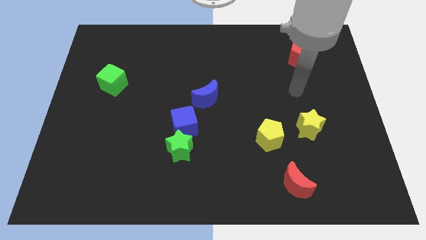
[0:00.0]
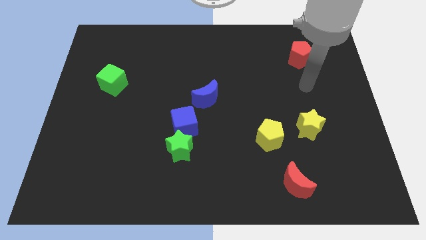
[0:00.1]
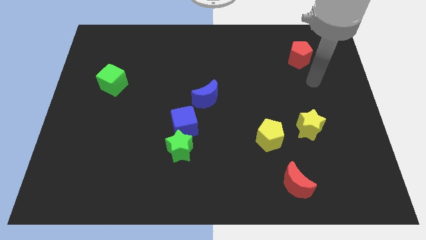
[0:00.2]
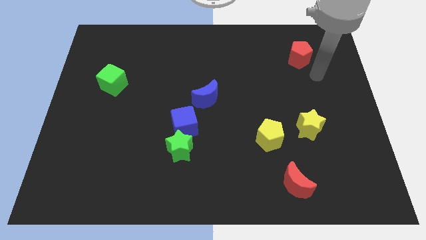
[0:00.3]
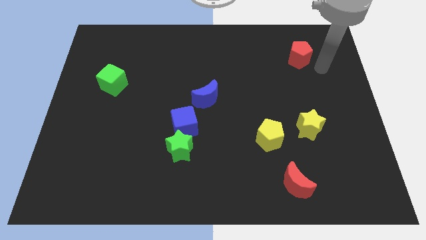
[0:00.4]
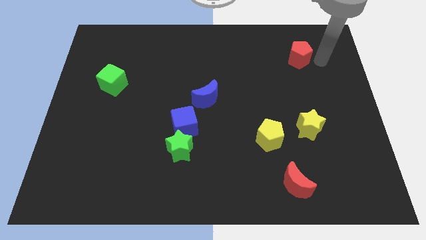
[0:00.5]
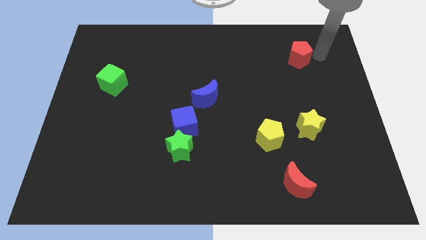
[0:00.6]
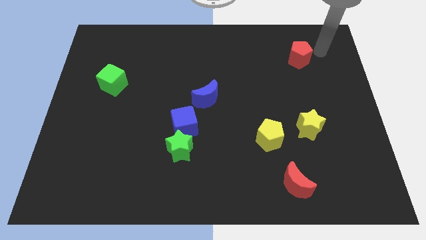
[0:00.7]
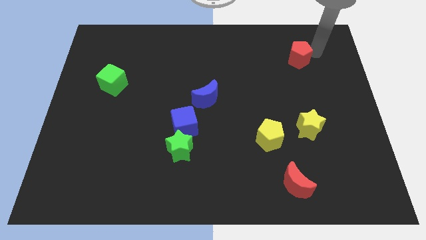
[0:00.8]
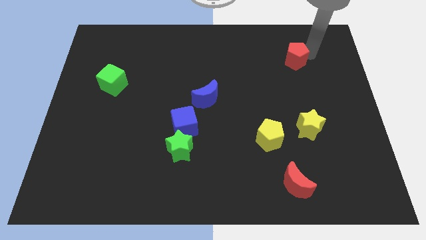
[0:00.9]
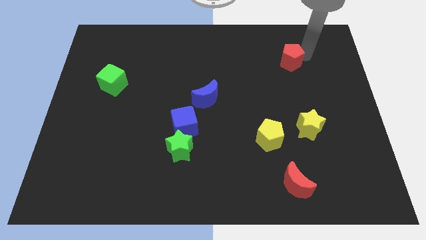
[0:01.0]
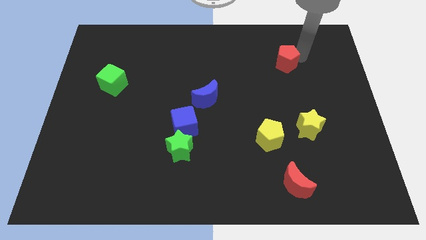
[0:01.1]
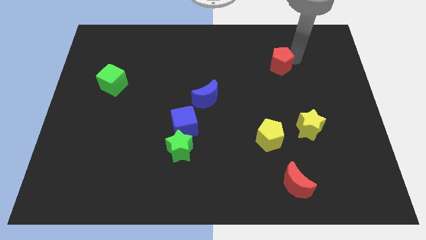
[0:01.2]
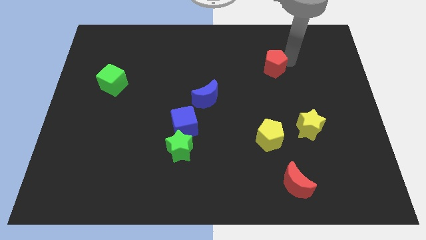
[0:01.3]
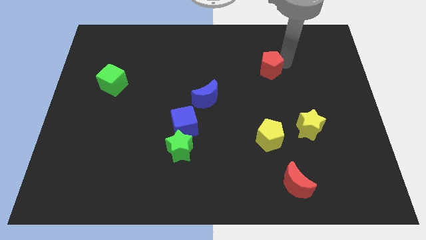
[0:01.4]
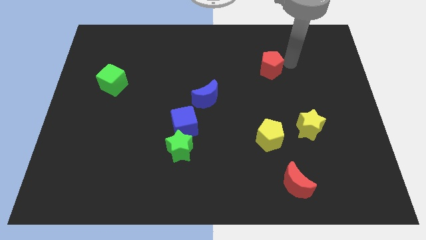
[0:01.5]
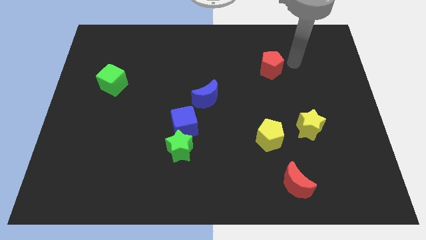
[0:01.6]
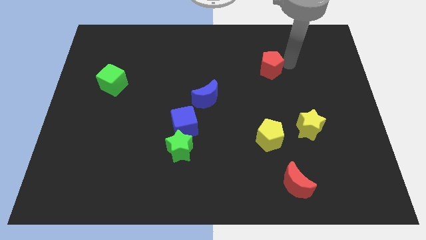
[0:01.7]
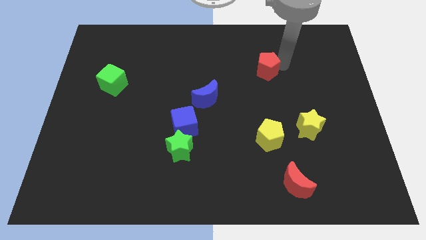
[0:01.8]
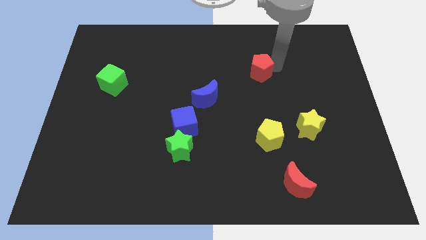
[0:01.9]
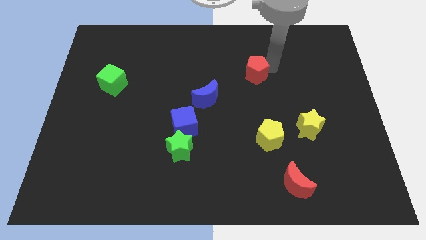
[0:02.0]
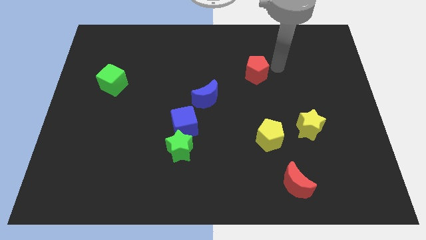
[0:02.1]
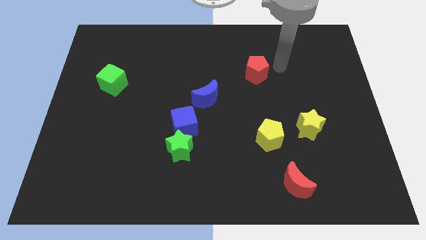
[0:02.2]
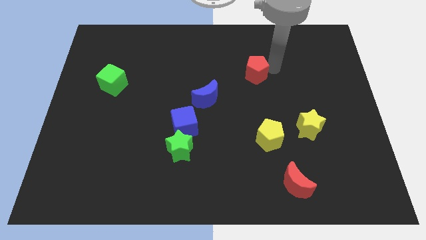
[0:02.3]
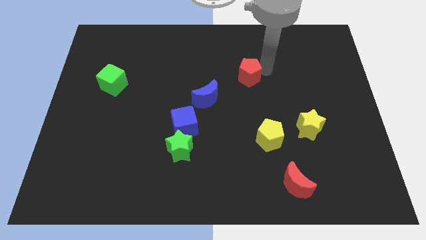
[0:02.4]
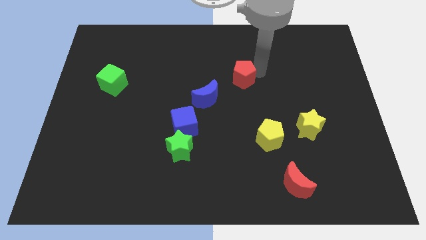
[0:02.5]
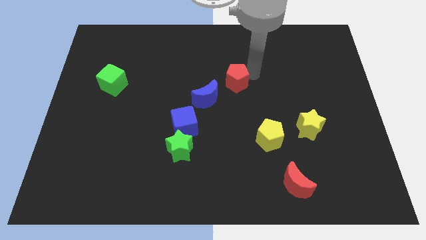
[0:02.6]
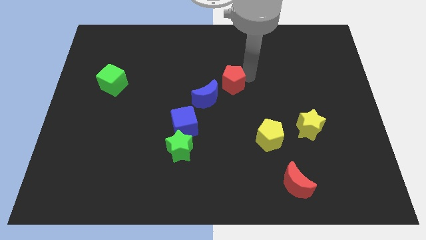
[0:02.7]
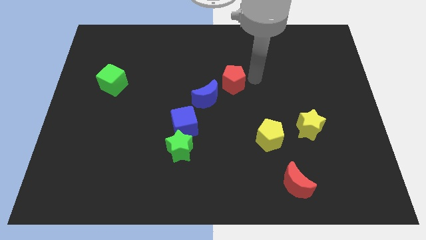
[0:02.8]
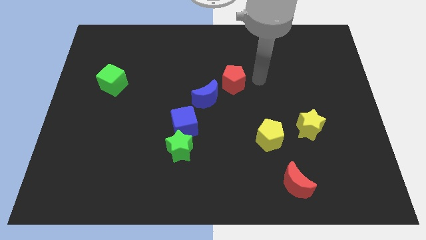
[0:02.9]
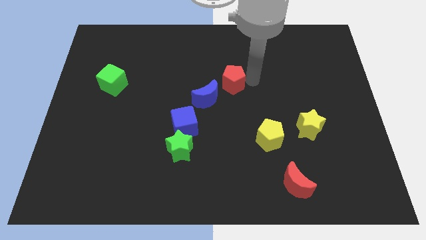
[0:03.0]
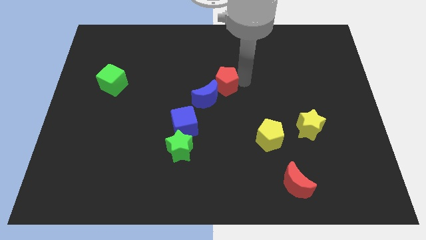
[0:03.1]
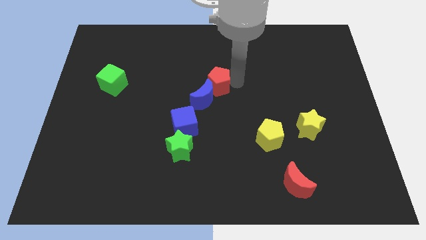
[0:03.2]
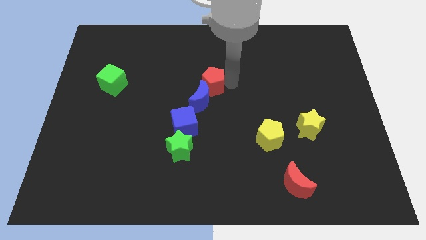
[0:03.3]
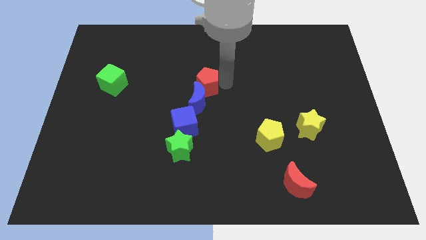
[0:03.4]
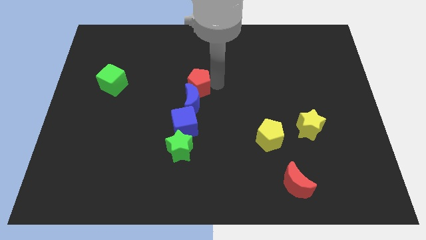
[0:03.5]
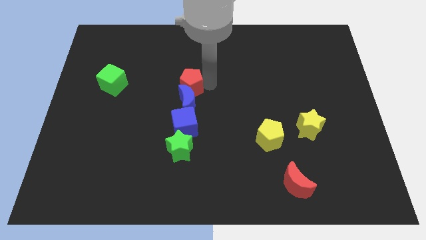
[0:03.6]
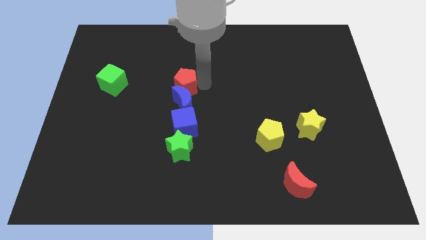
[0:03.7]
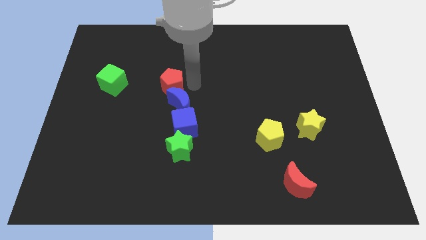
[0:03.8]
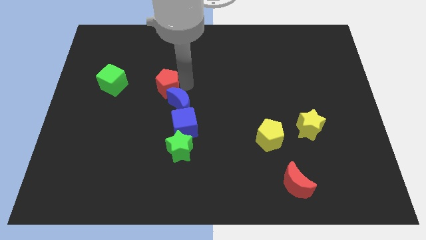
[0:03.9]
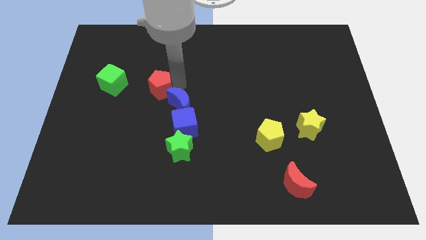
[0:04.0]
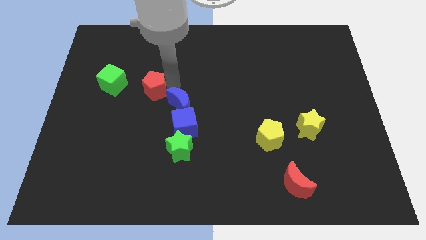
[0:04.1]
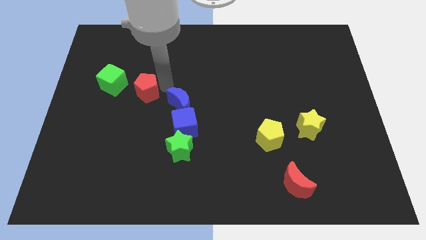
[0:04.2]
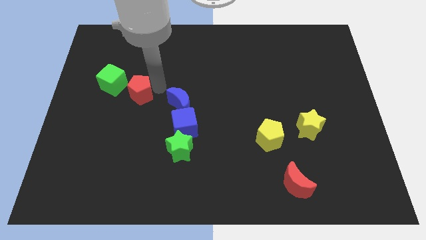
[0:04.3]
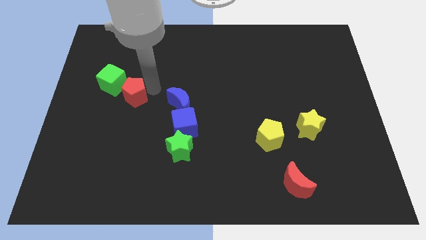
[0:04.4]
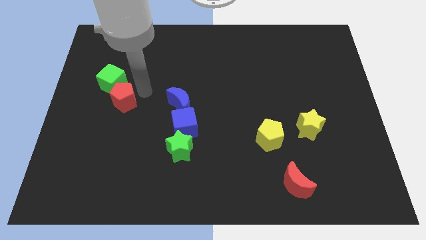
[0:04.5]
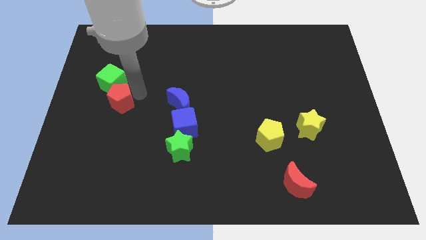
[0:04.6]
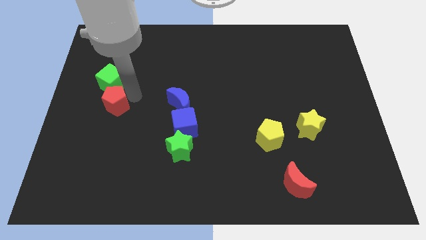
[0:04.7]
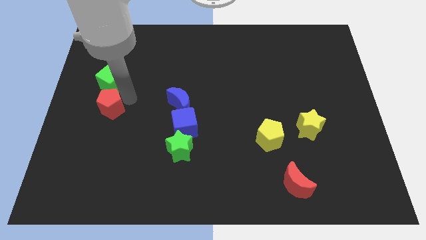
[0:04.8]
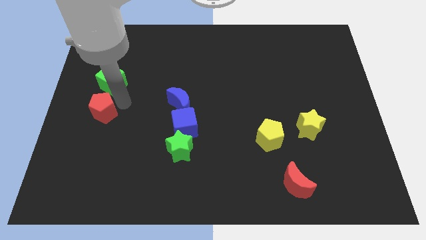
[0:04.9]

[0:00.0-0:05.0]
push the red pentagon to the left side

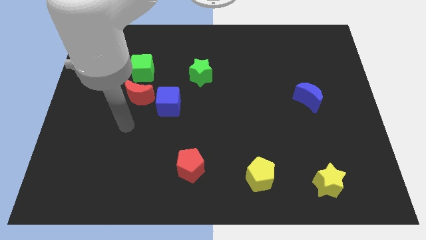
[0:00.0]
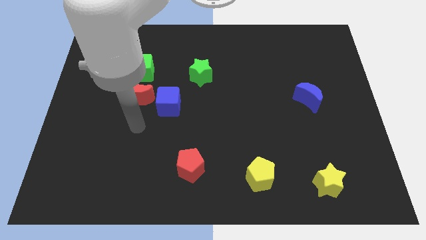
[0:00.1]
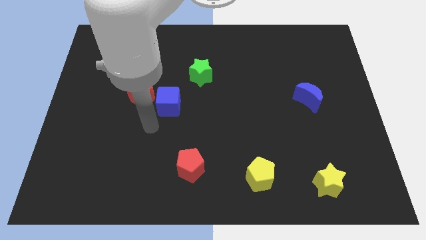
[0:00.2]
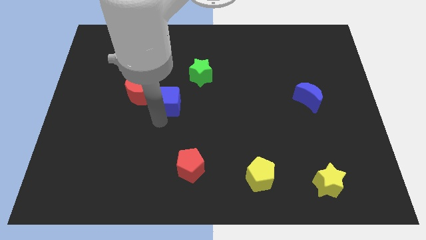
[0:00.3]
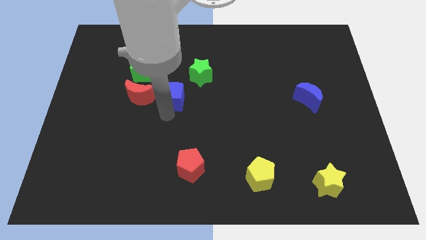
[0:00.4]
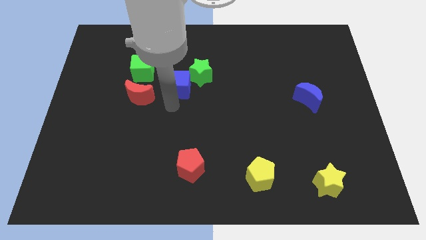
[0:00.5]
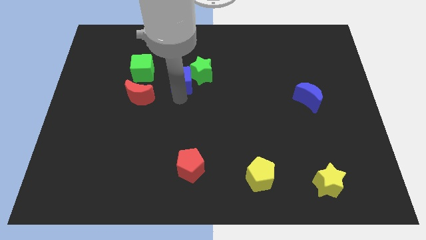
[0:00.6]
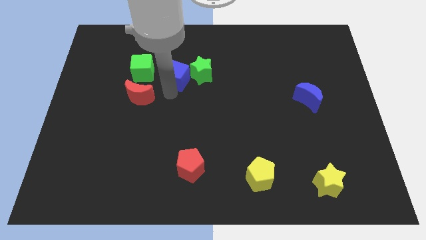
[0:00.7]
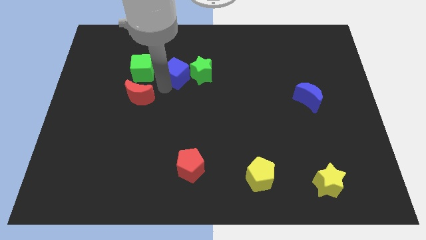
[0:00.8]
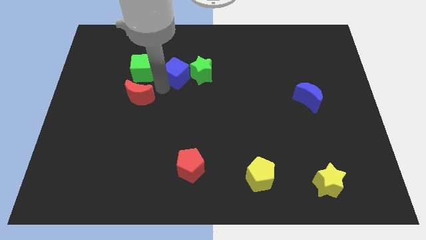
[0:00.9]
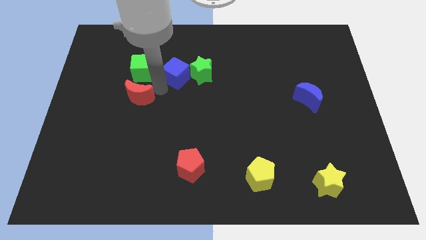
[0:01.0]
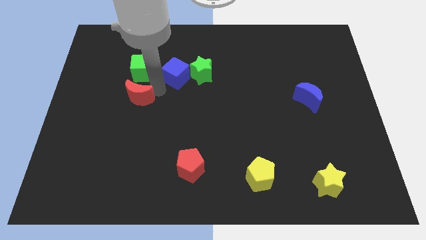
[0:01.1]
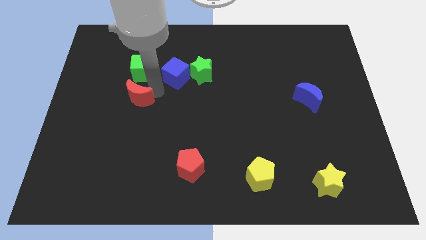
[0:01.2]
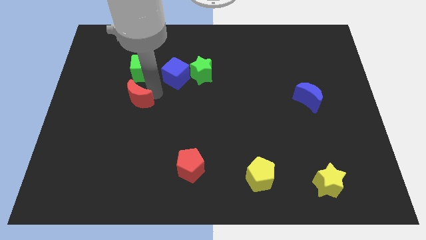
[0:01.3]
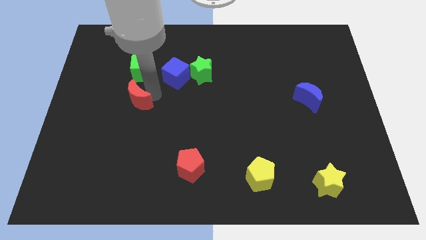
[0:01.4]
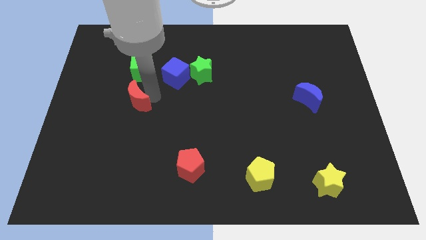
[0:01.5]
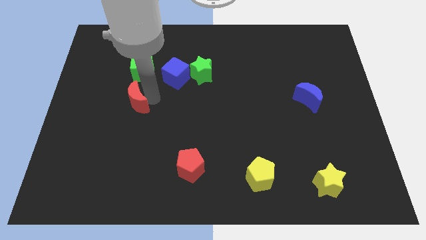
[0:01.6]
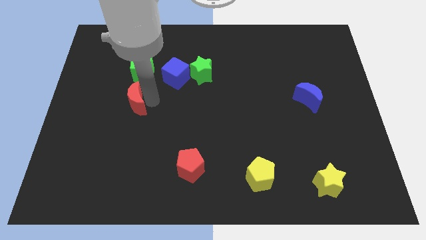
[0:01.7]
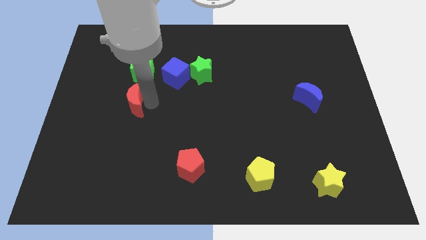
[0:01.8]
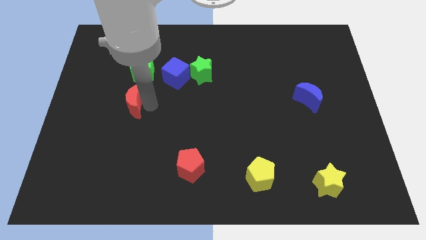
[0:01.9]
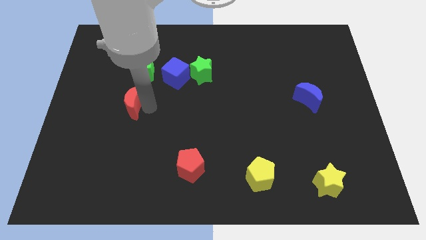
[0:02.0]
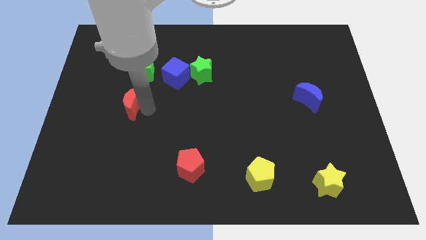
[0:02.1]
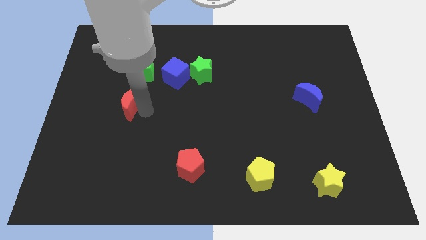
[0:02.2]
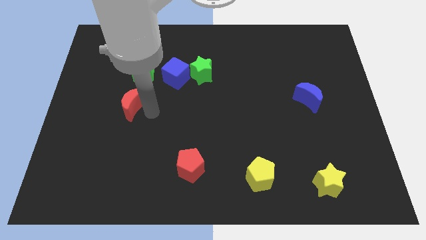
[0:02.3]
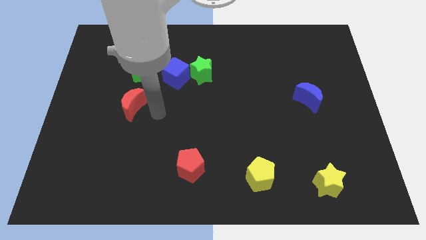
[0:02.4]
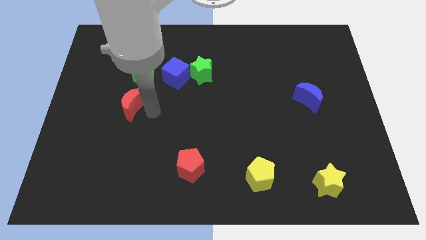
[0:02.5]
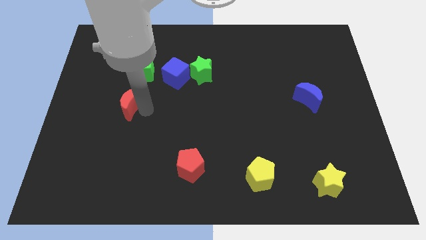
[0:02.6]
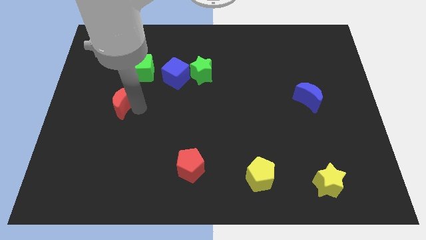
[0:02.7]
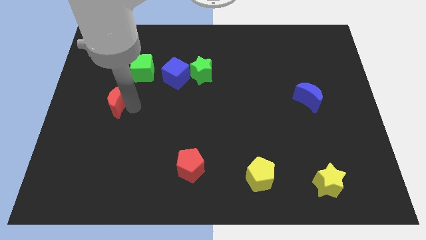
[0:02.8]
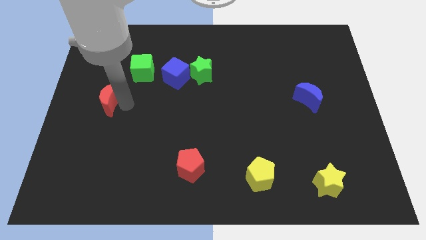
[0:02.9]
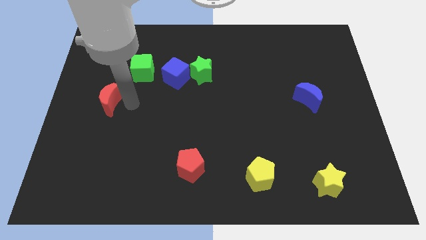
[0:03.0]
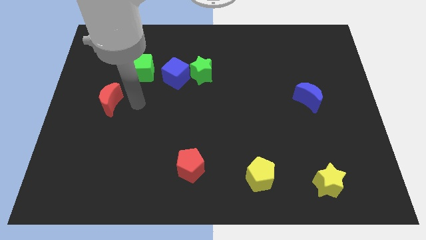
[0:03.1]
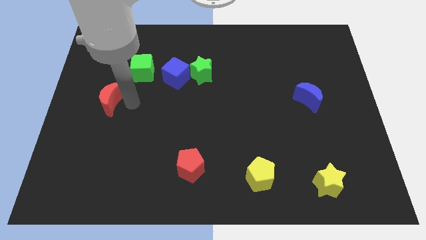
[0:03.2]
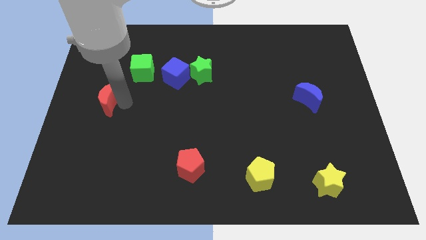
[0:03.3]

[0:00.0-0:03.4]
slide the red moon to the center left
